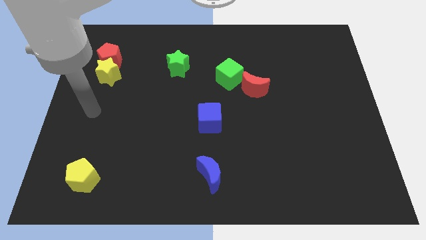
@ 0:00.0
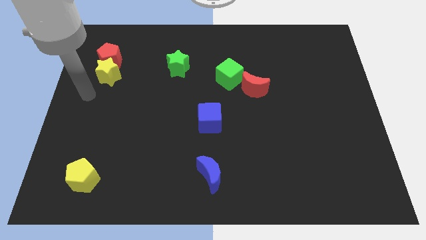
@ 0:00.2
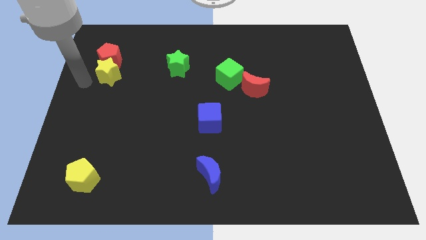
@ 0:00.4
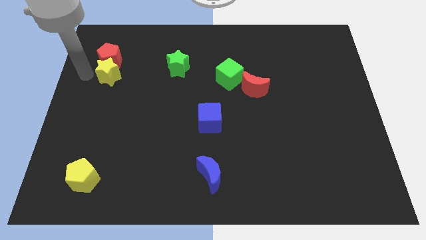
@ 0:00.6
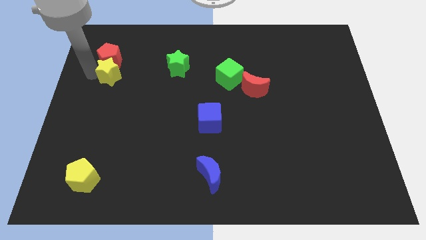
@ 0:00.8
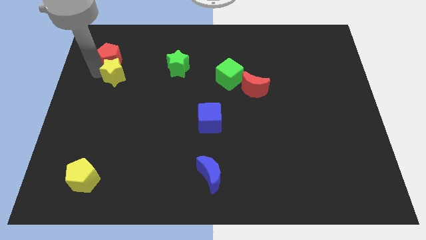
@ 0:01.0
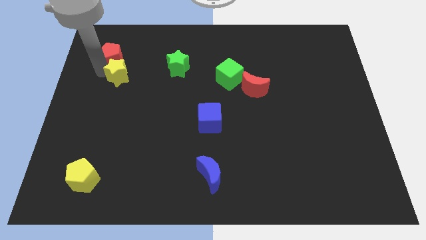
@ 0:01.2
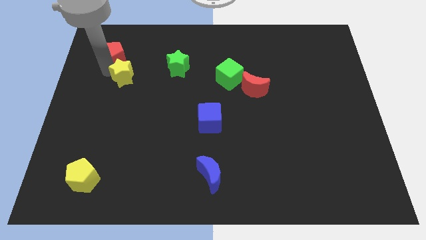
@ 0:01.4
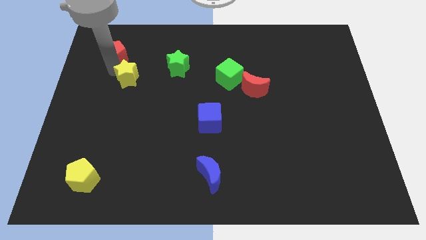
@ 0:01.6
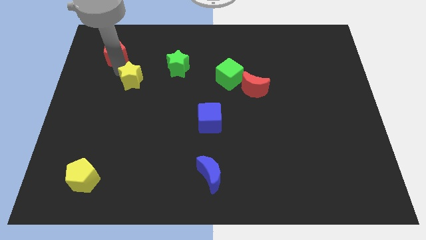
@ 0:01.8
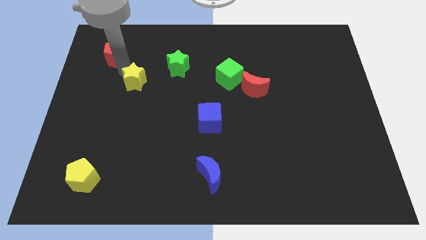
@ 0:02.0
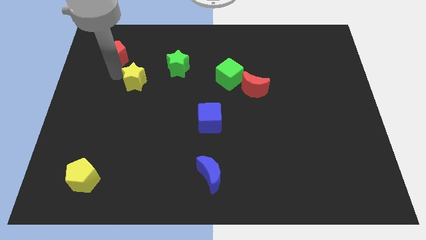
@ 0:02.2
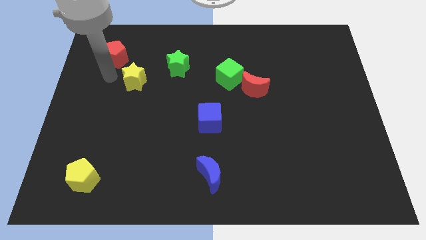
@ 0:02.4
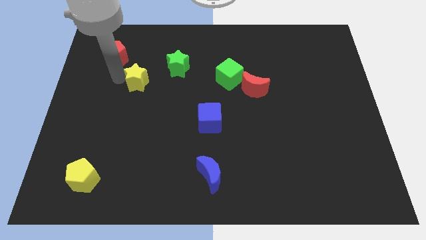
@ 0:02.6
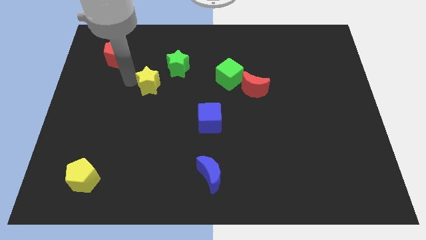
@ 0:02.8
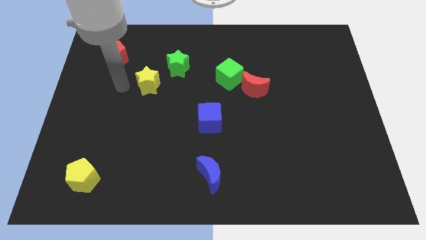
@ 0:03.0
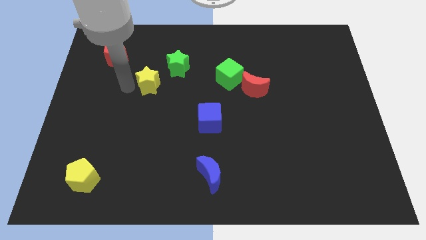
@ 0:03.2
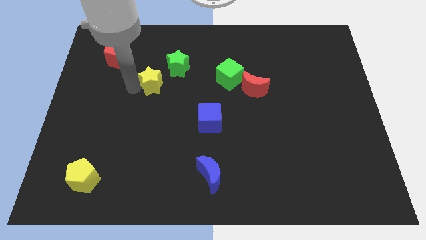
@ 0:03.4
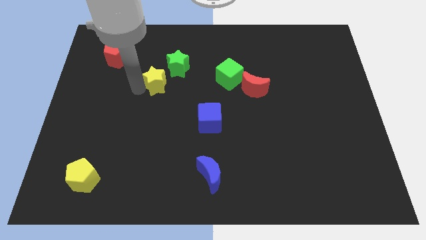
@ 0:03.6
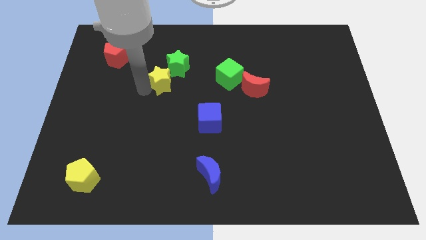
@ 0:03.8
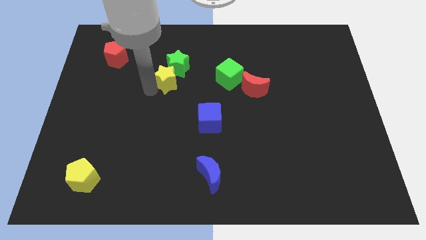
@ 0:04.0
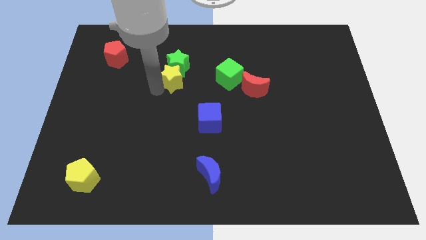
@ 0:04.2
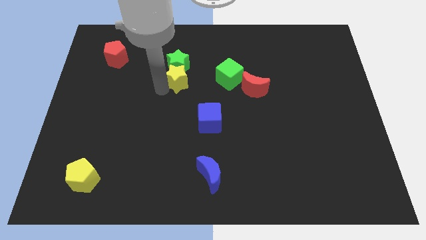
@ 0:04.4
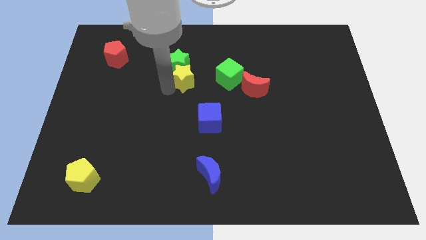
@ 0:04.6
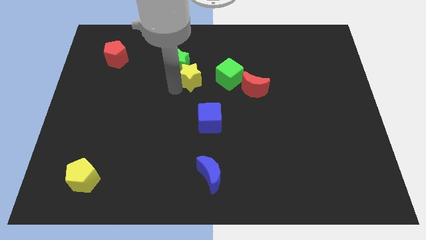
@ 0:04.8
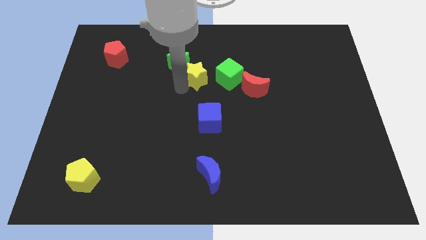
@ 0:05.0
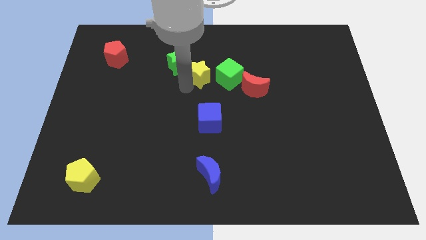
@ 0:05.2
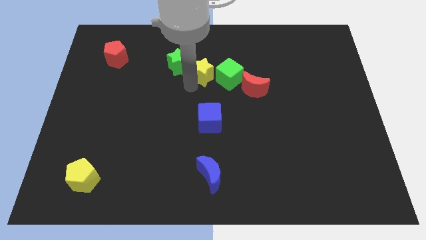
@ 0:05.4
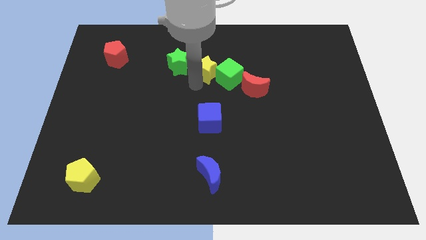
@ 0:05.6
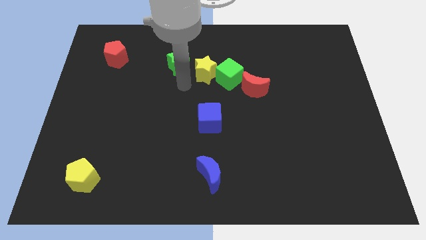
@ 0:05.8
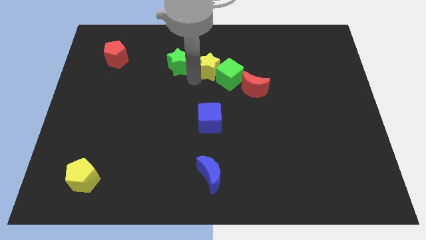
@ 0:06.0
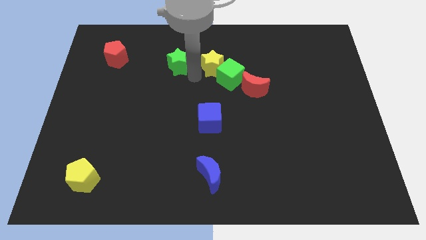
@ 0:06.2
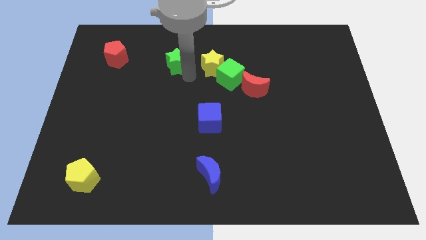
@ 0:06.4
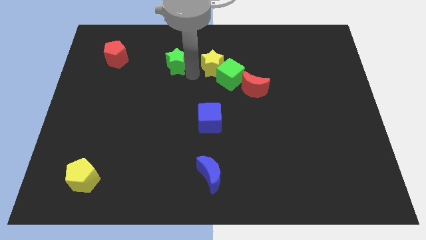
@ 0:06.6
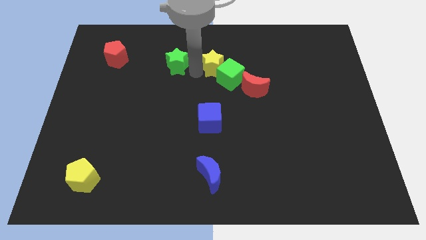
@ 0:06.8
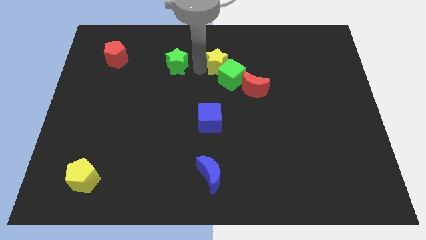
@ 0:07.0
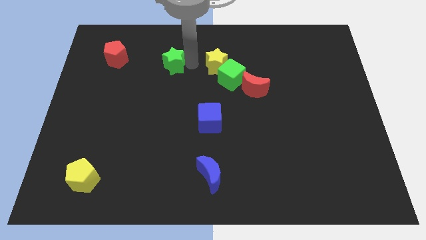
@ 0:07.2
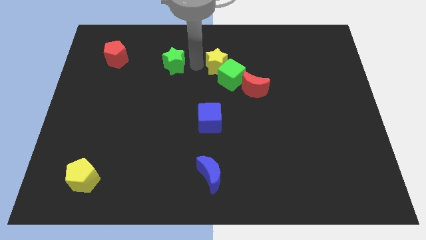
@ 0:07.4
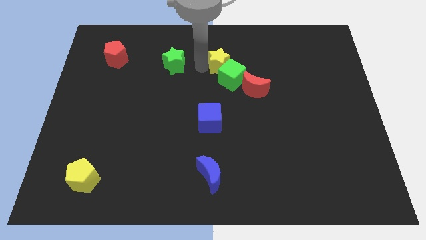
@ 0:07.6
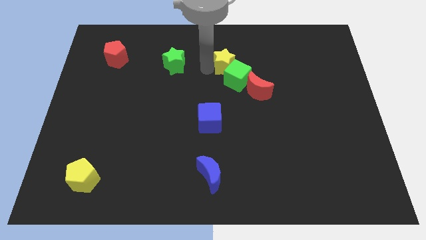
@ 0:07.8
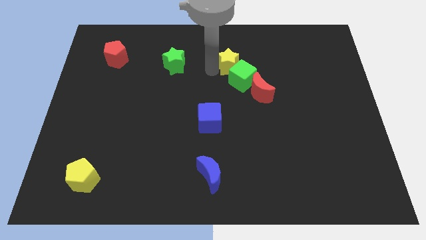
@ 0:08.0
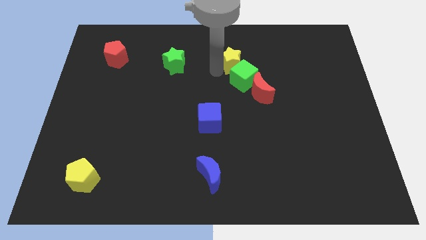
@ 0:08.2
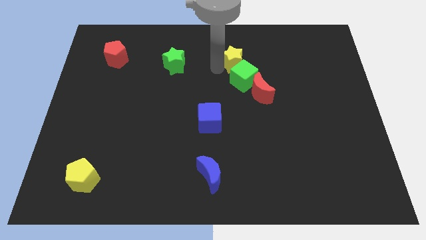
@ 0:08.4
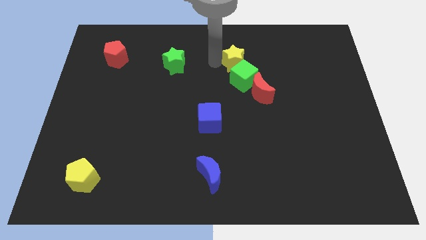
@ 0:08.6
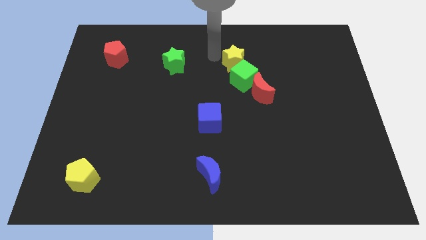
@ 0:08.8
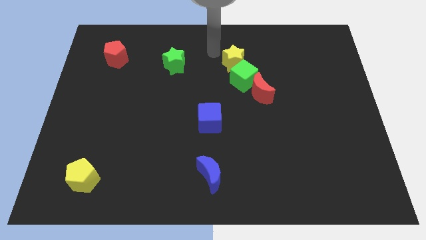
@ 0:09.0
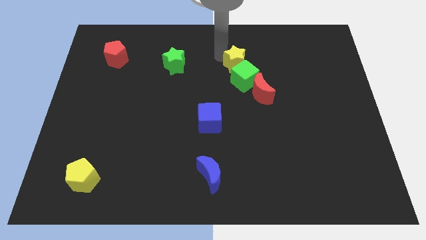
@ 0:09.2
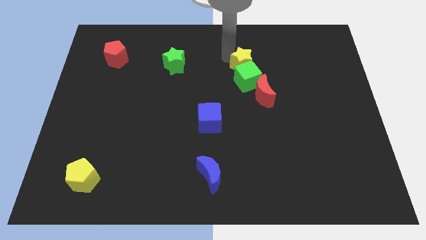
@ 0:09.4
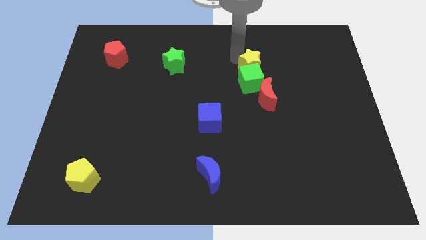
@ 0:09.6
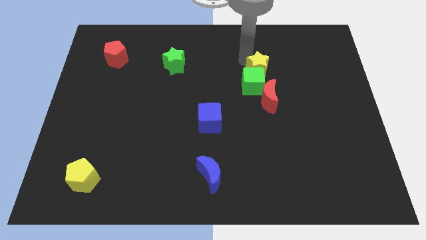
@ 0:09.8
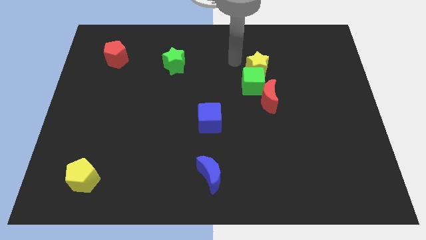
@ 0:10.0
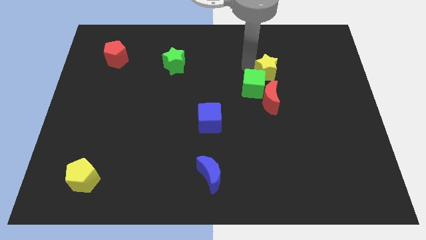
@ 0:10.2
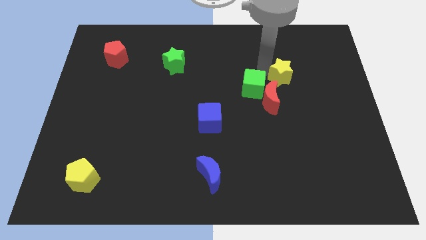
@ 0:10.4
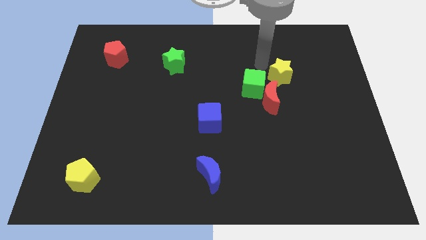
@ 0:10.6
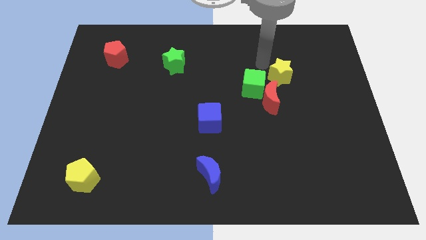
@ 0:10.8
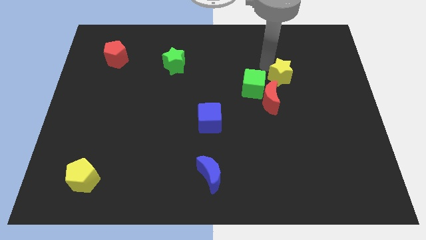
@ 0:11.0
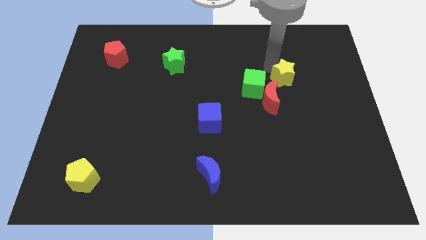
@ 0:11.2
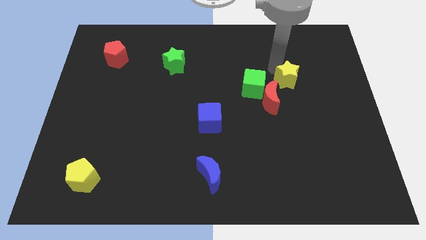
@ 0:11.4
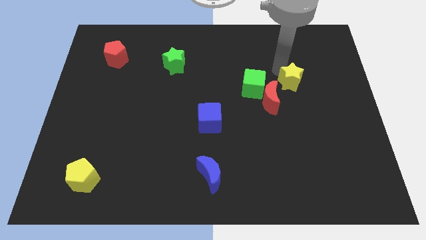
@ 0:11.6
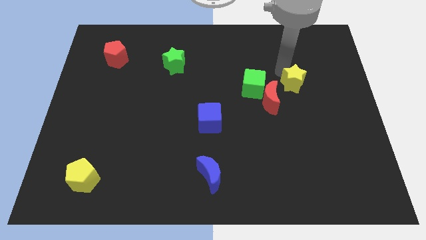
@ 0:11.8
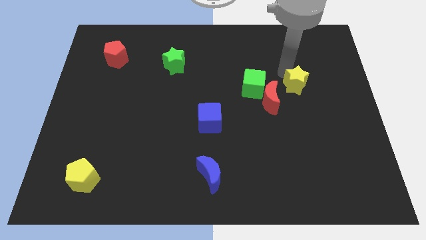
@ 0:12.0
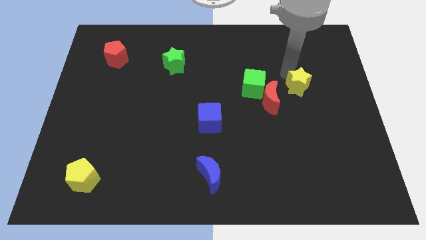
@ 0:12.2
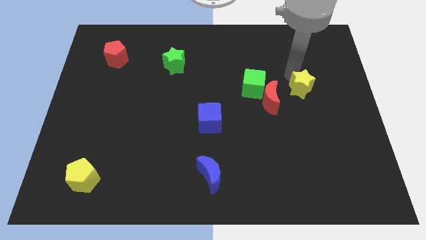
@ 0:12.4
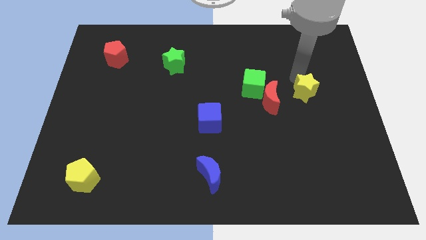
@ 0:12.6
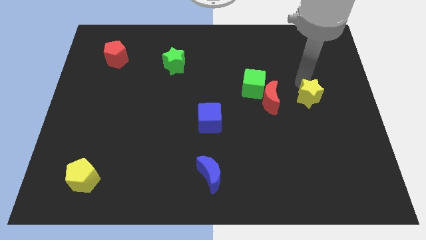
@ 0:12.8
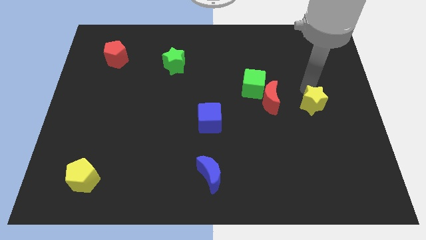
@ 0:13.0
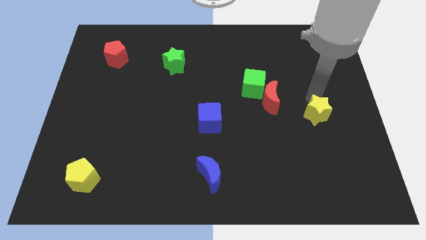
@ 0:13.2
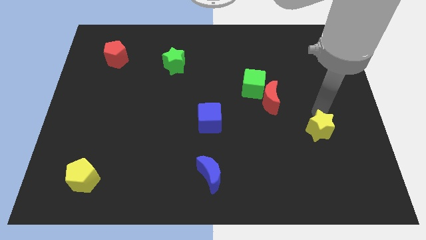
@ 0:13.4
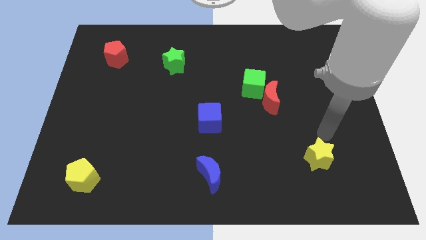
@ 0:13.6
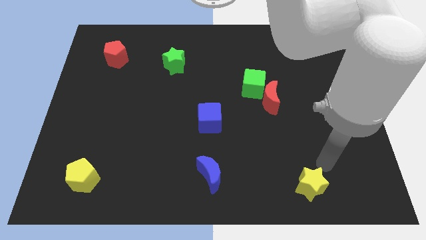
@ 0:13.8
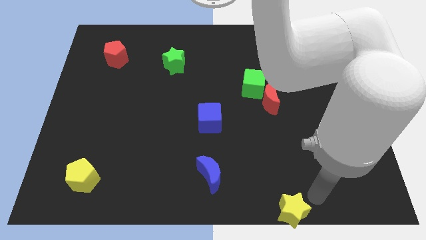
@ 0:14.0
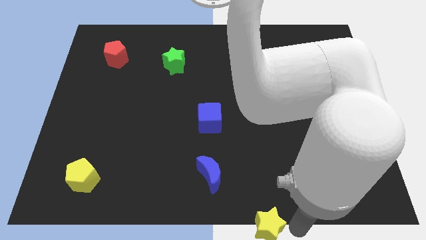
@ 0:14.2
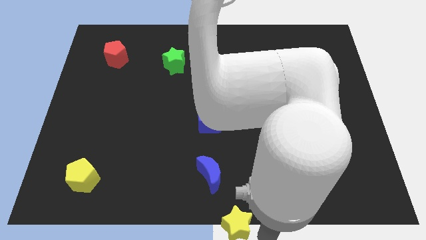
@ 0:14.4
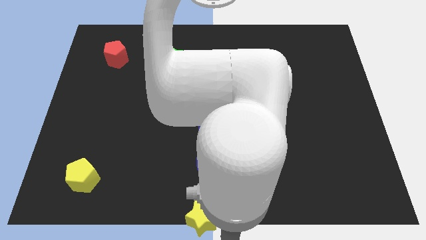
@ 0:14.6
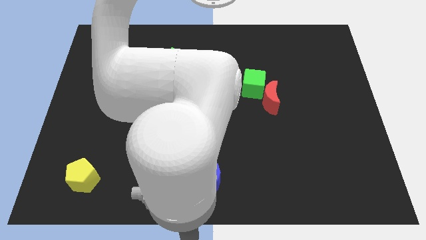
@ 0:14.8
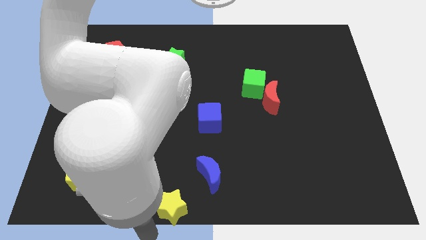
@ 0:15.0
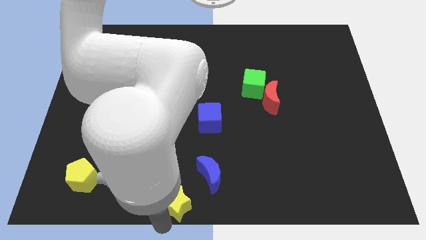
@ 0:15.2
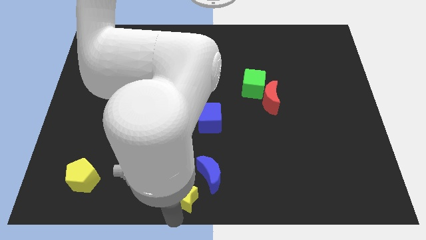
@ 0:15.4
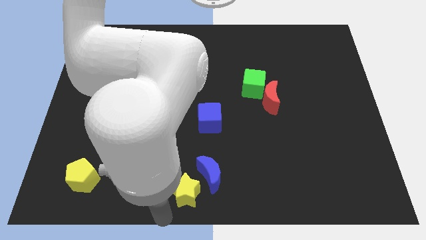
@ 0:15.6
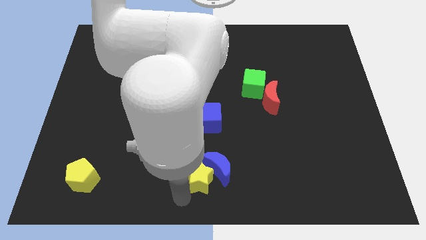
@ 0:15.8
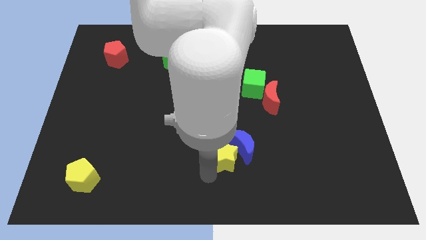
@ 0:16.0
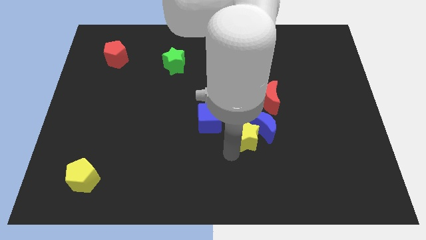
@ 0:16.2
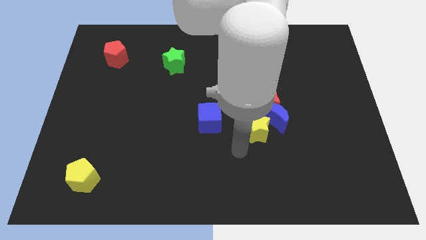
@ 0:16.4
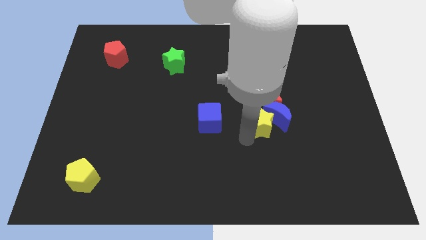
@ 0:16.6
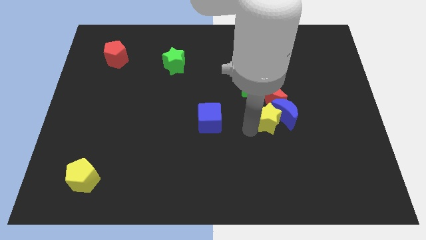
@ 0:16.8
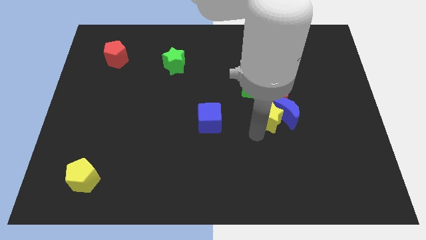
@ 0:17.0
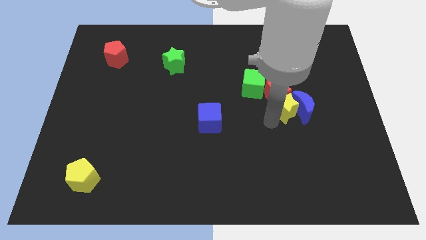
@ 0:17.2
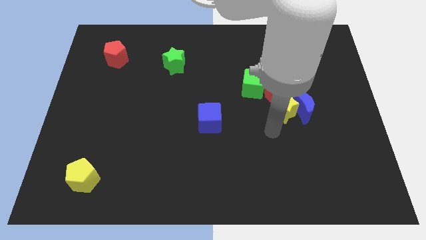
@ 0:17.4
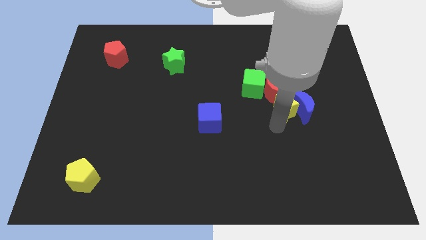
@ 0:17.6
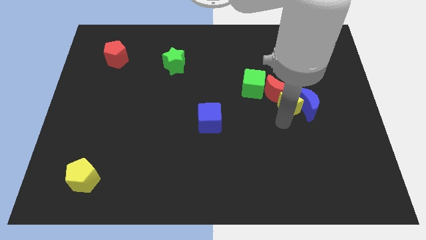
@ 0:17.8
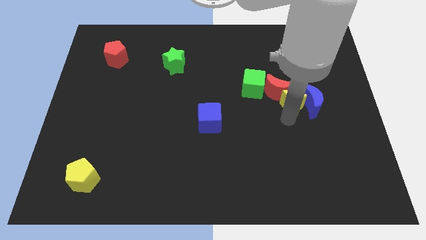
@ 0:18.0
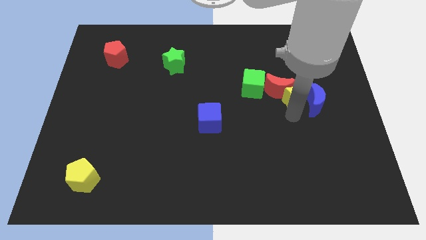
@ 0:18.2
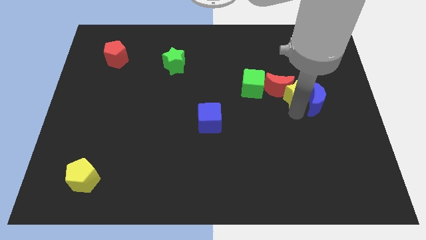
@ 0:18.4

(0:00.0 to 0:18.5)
put the yellow star to the right side of the green cube
